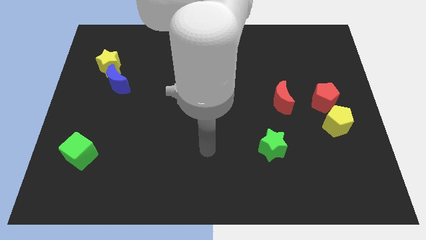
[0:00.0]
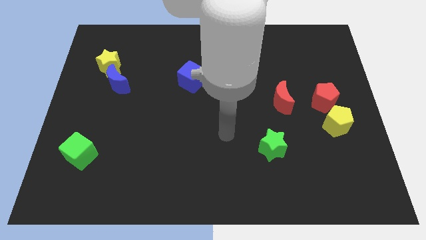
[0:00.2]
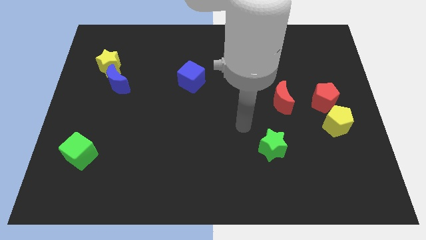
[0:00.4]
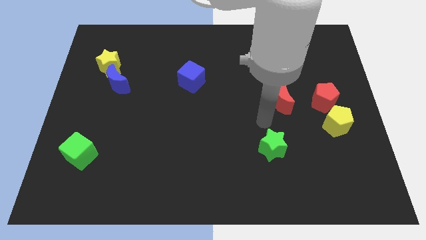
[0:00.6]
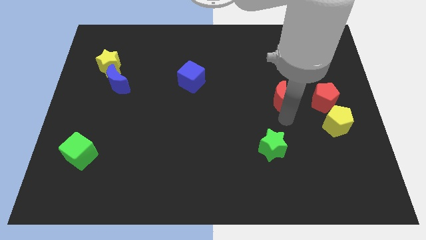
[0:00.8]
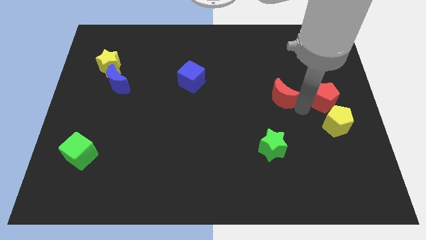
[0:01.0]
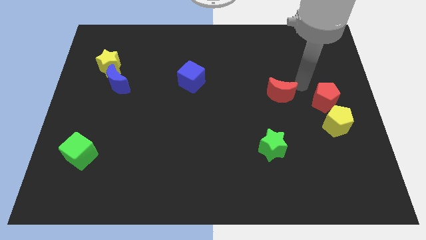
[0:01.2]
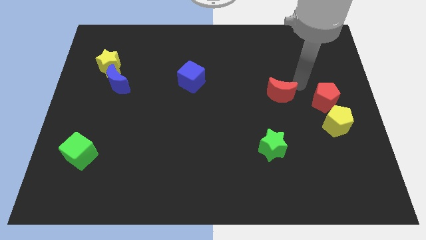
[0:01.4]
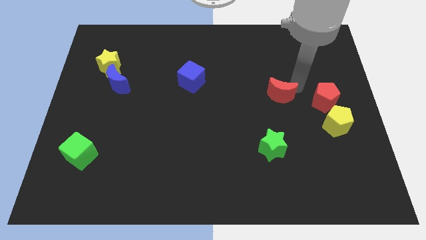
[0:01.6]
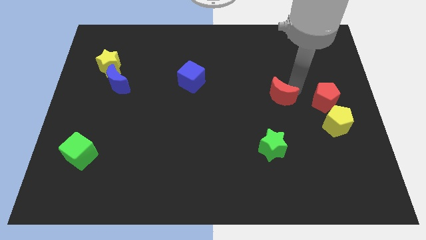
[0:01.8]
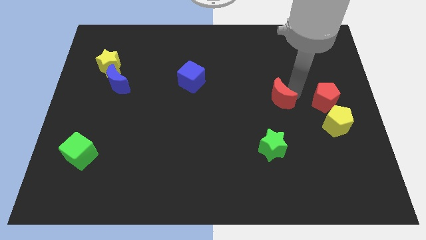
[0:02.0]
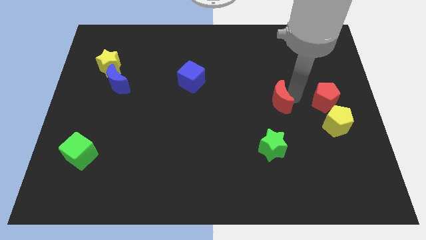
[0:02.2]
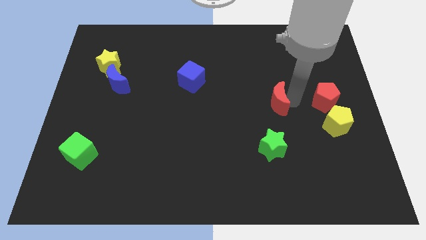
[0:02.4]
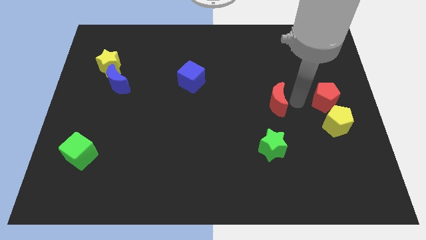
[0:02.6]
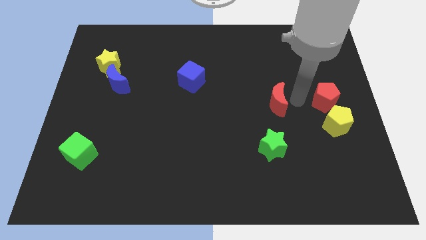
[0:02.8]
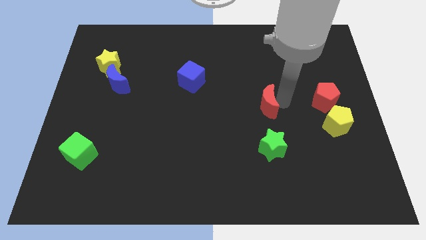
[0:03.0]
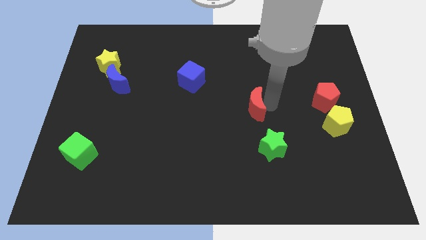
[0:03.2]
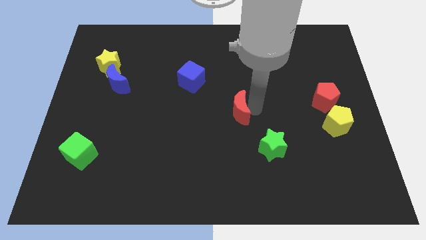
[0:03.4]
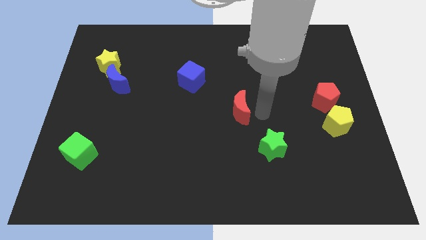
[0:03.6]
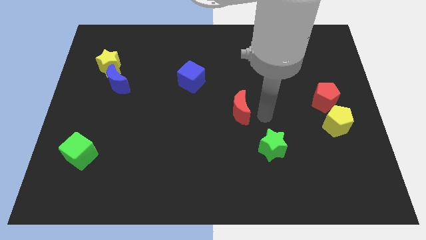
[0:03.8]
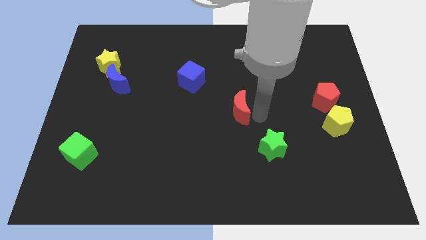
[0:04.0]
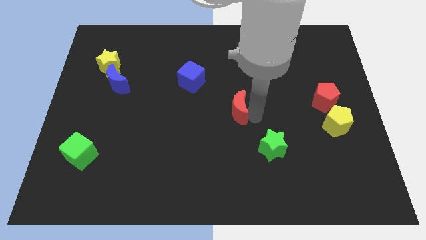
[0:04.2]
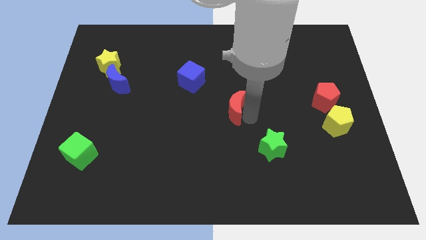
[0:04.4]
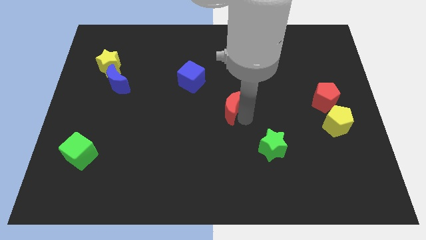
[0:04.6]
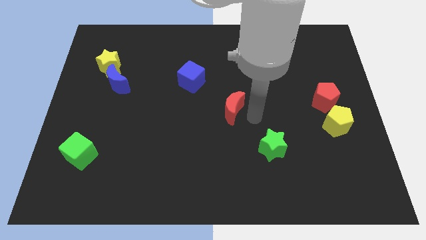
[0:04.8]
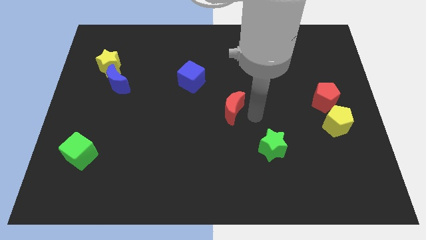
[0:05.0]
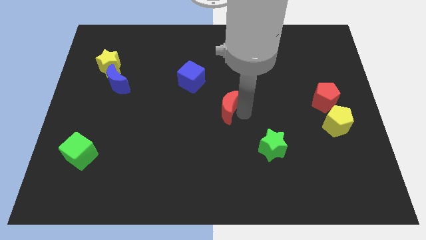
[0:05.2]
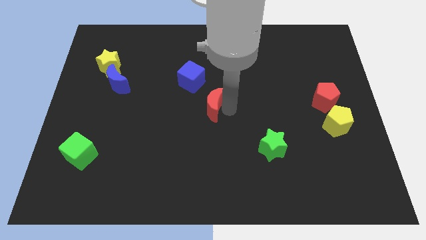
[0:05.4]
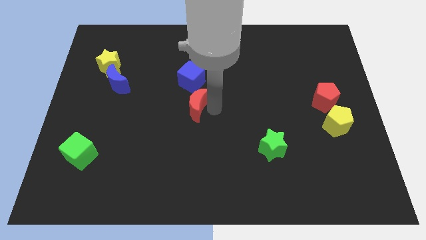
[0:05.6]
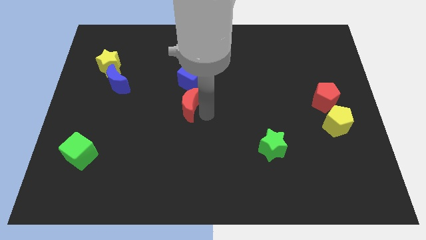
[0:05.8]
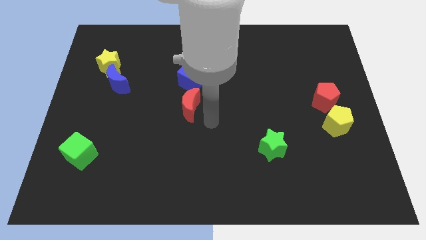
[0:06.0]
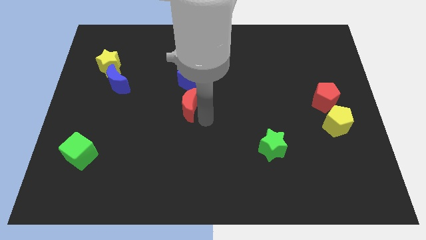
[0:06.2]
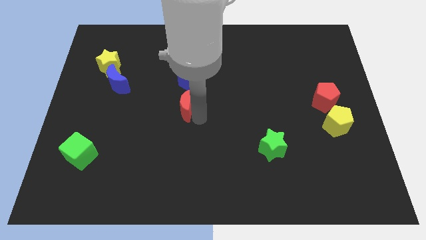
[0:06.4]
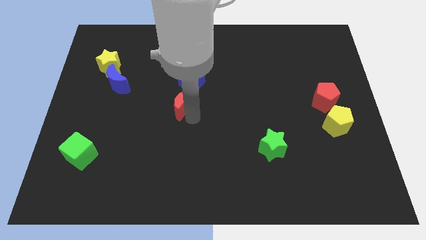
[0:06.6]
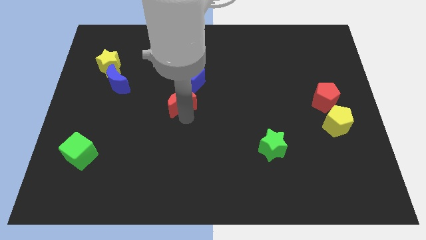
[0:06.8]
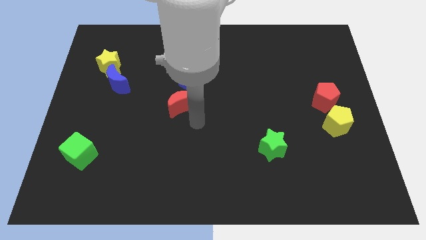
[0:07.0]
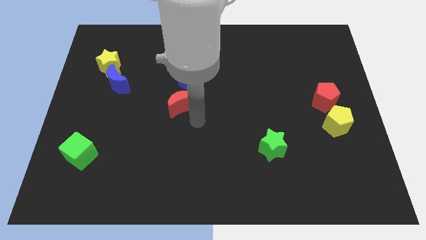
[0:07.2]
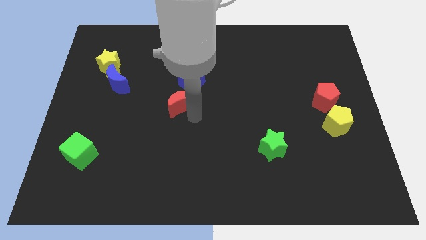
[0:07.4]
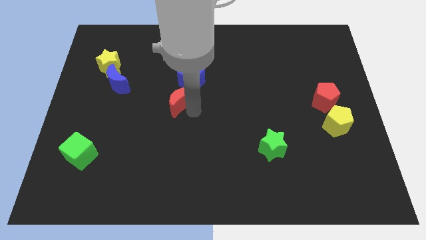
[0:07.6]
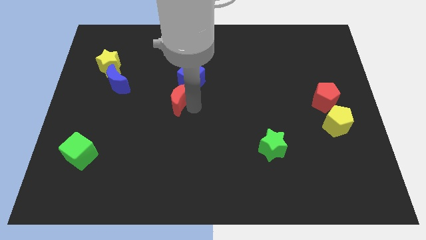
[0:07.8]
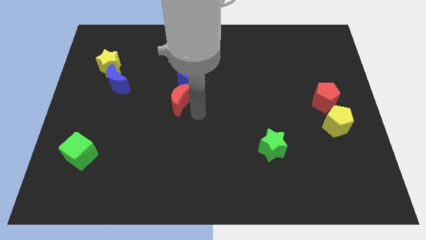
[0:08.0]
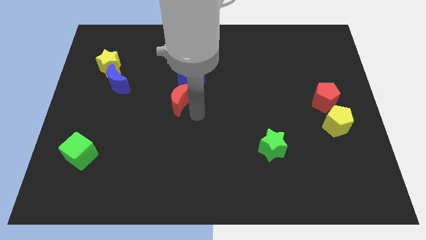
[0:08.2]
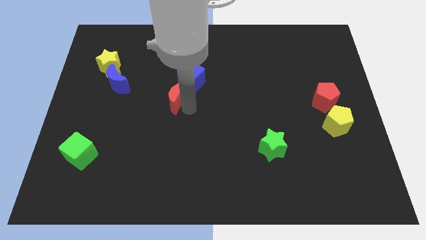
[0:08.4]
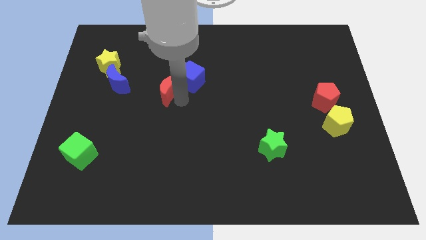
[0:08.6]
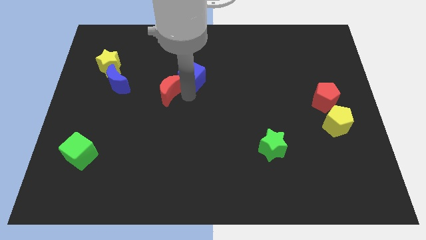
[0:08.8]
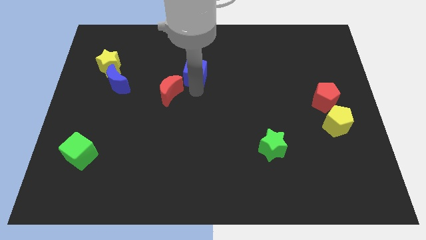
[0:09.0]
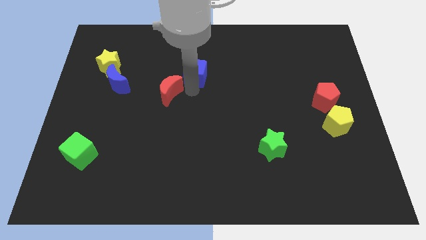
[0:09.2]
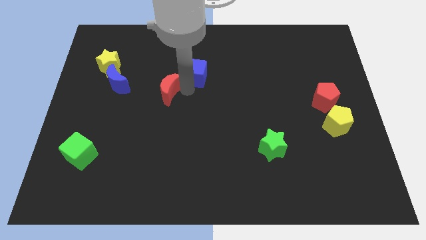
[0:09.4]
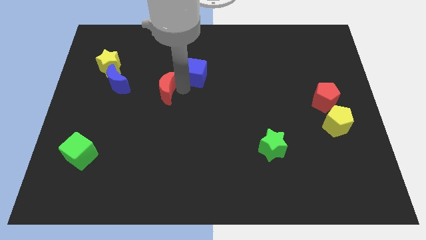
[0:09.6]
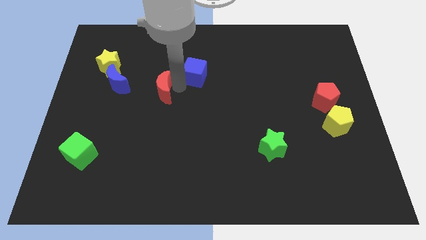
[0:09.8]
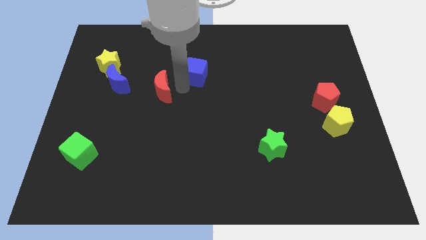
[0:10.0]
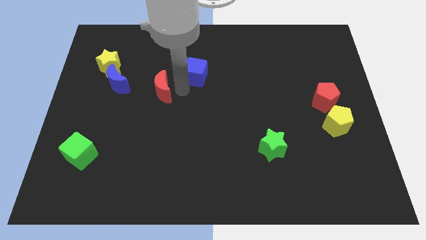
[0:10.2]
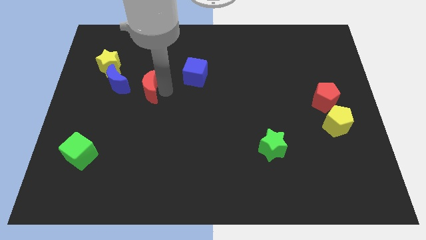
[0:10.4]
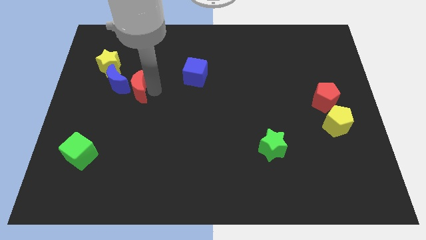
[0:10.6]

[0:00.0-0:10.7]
put the red moon next to the blue moon

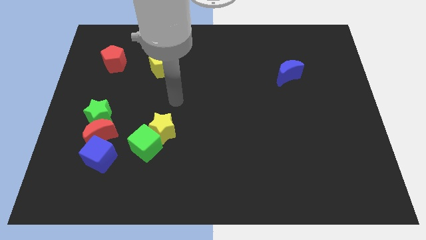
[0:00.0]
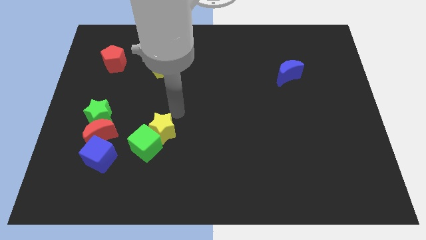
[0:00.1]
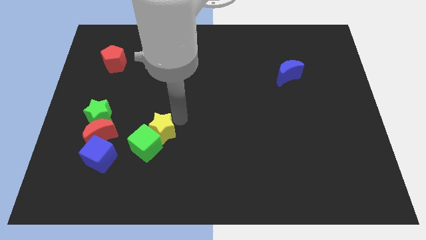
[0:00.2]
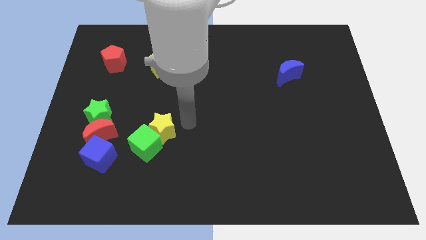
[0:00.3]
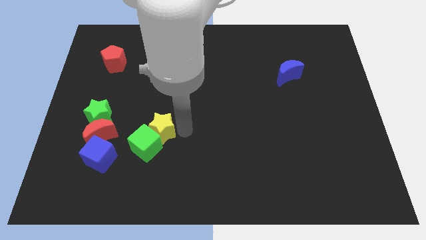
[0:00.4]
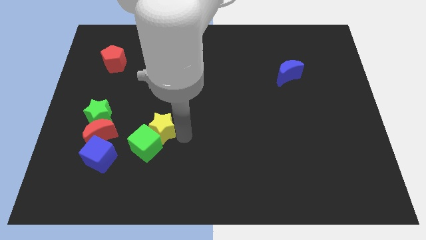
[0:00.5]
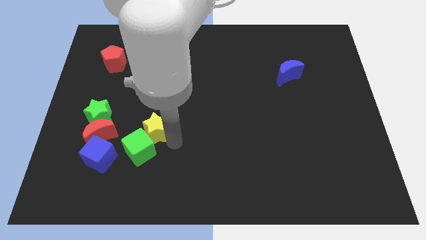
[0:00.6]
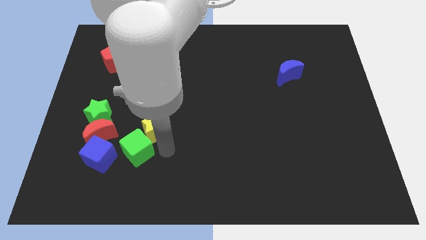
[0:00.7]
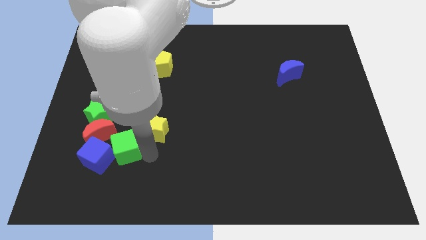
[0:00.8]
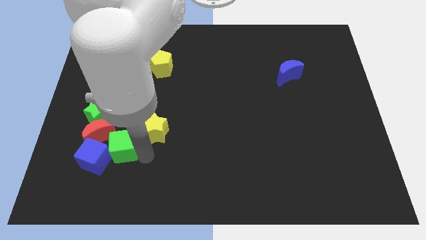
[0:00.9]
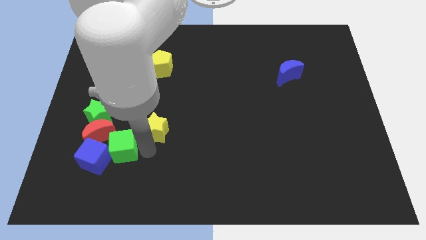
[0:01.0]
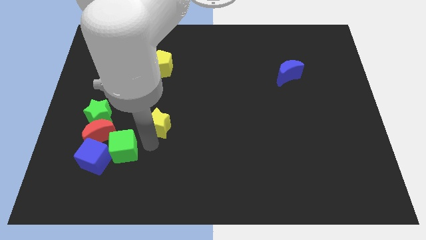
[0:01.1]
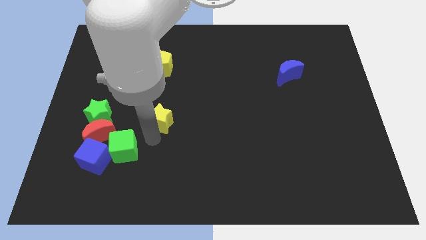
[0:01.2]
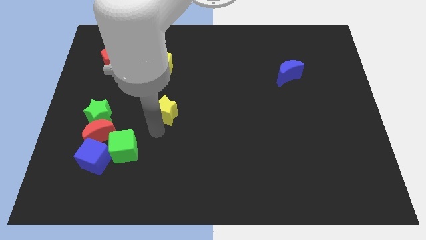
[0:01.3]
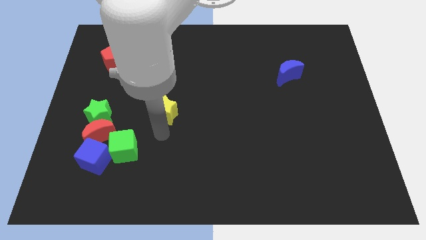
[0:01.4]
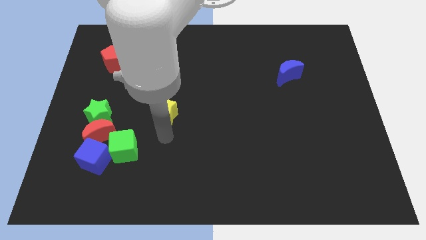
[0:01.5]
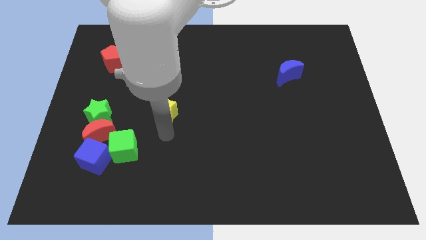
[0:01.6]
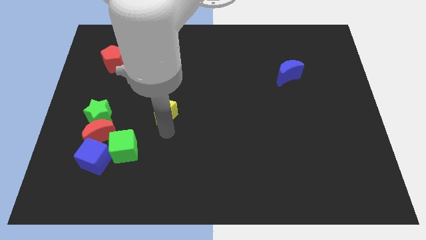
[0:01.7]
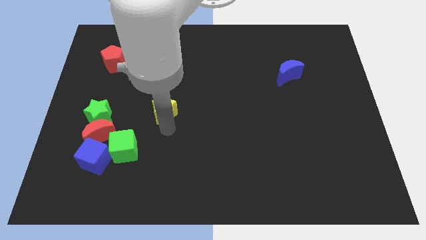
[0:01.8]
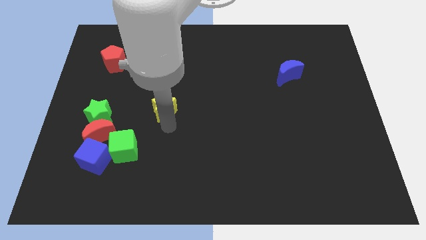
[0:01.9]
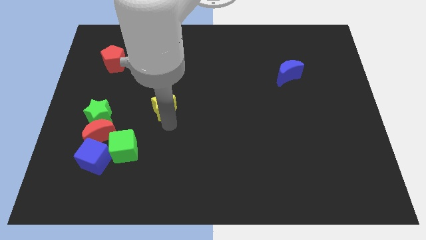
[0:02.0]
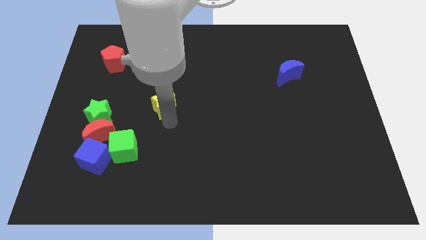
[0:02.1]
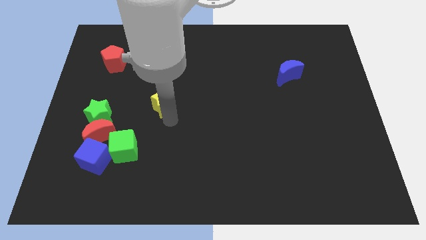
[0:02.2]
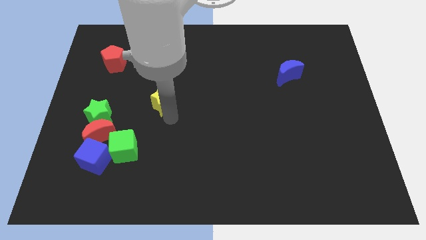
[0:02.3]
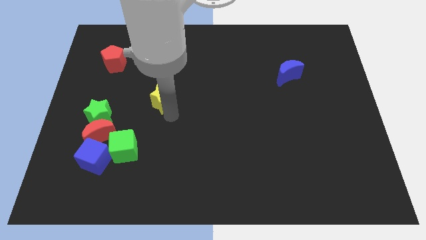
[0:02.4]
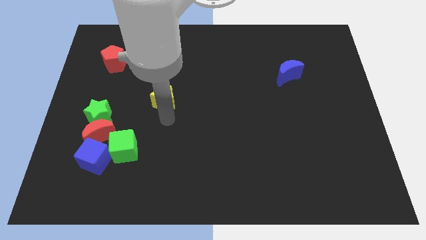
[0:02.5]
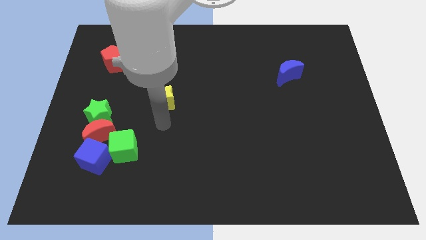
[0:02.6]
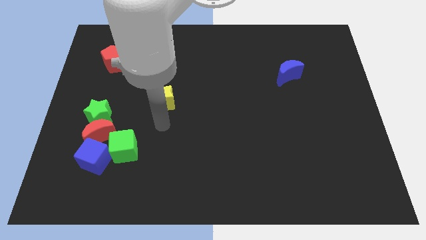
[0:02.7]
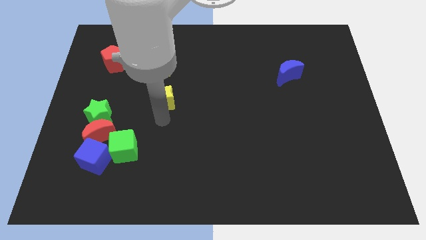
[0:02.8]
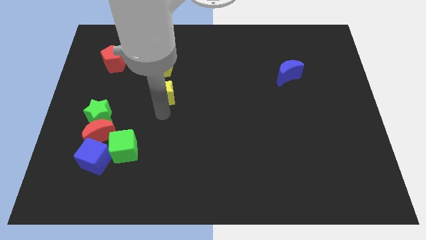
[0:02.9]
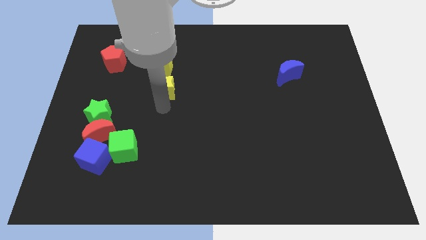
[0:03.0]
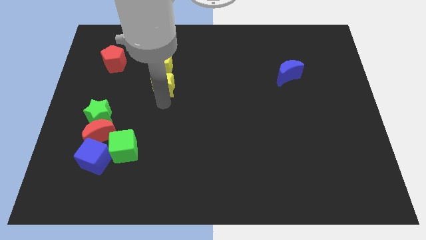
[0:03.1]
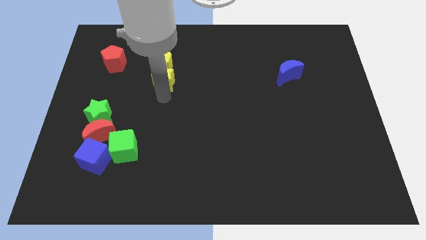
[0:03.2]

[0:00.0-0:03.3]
put the yellow star towards the yellow pentagon
